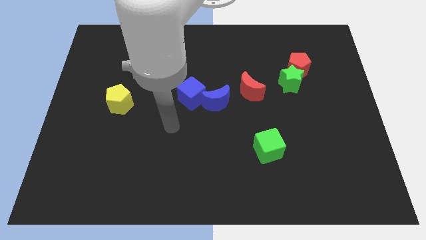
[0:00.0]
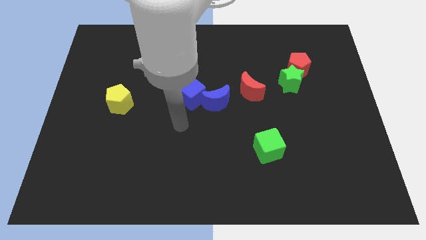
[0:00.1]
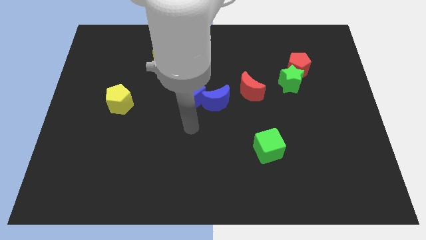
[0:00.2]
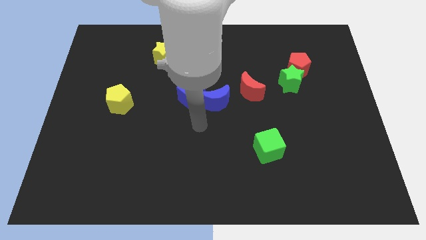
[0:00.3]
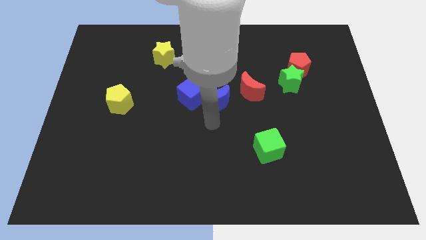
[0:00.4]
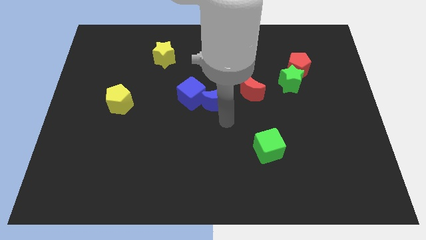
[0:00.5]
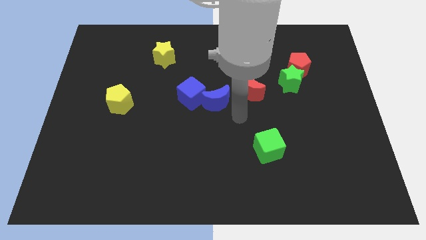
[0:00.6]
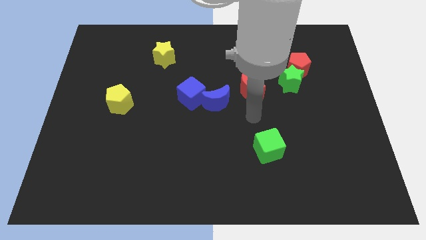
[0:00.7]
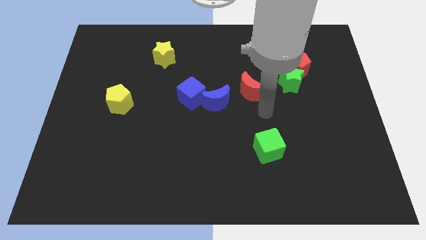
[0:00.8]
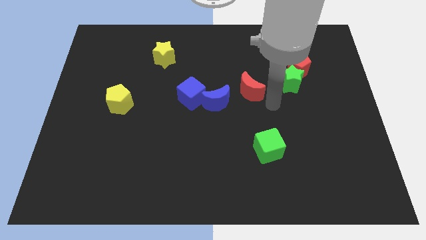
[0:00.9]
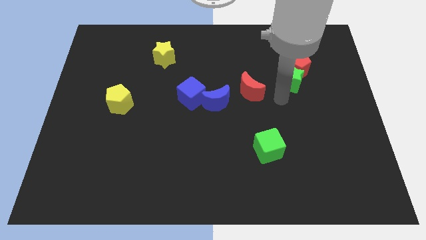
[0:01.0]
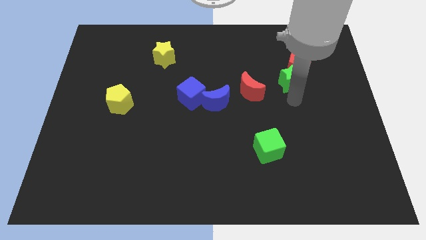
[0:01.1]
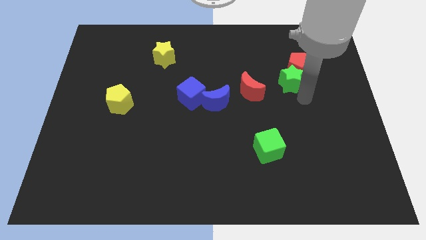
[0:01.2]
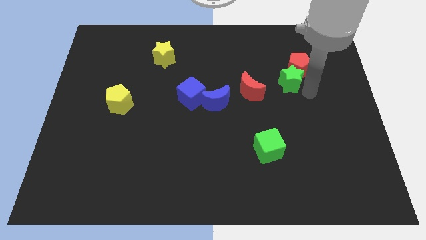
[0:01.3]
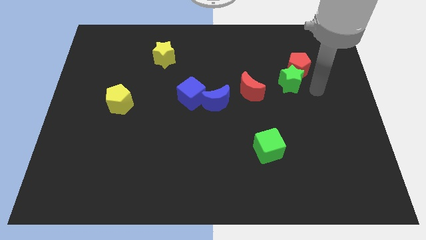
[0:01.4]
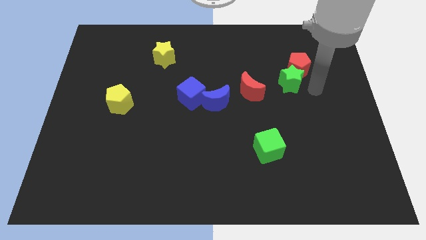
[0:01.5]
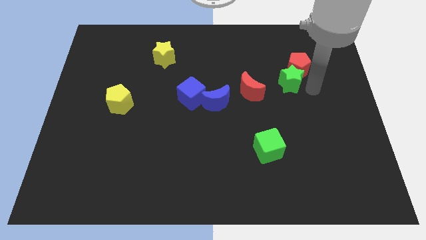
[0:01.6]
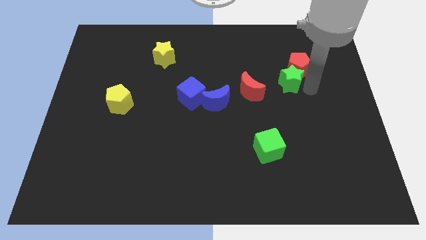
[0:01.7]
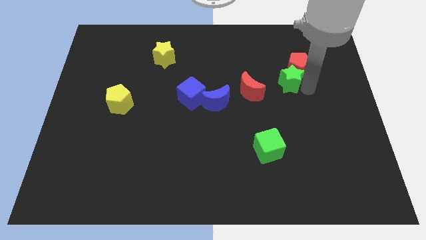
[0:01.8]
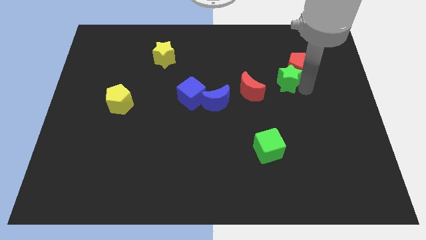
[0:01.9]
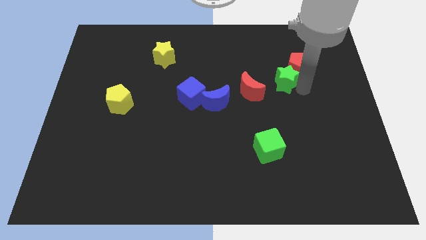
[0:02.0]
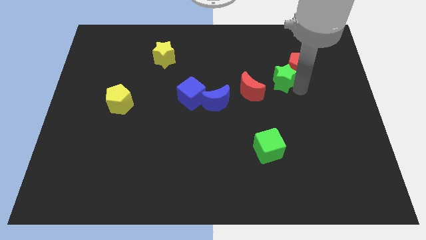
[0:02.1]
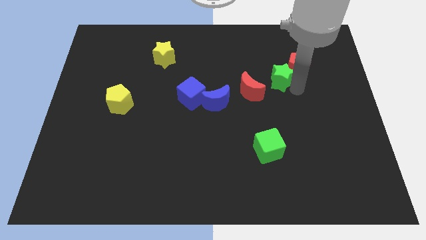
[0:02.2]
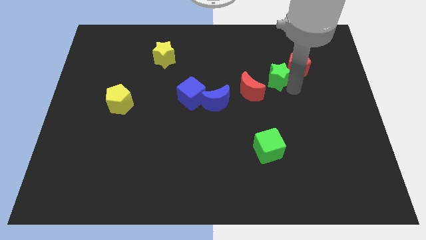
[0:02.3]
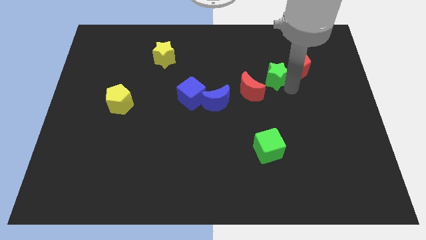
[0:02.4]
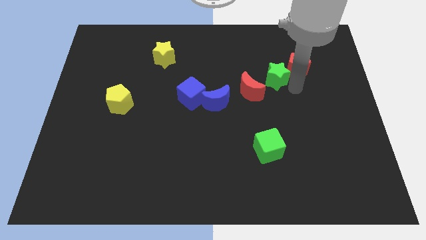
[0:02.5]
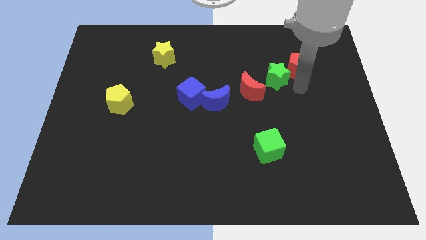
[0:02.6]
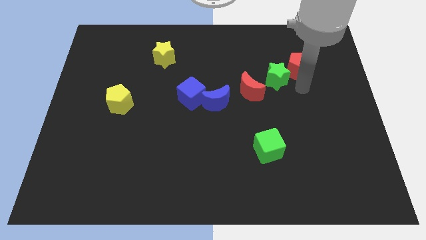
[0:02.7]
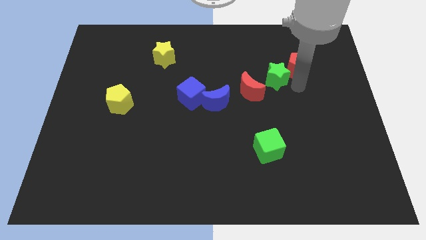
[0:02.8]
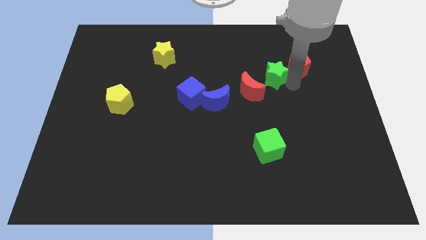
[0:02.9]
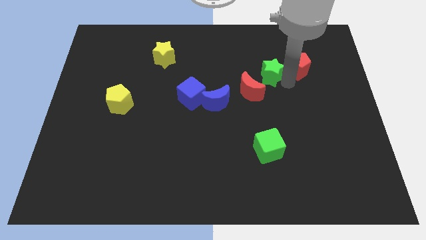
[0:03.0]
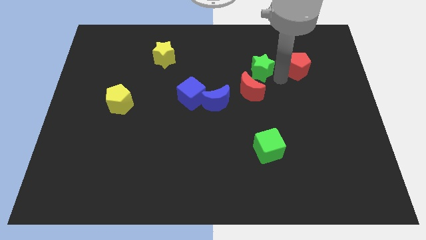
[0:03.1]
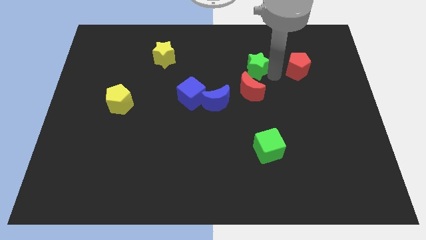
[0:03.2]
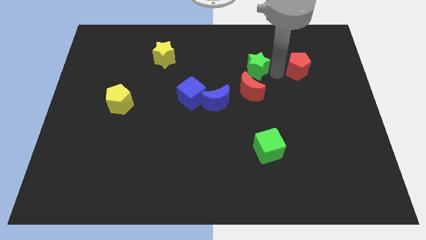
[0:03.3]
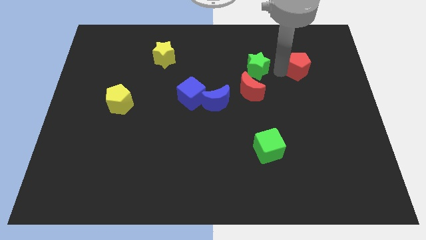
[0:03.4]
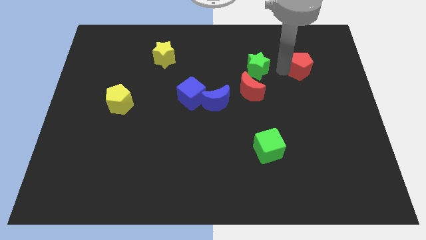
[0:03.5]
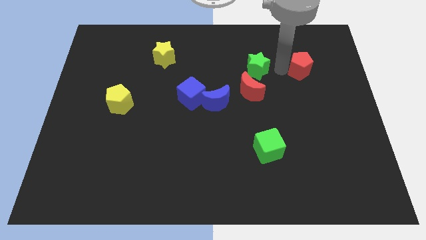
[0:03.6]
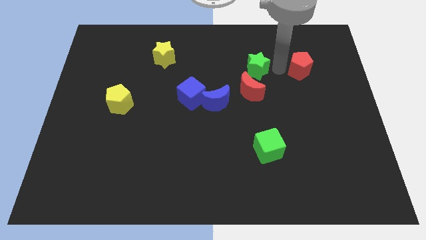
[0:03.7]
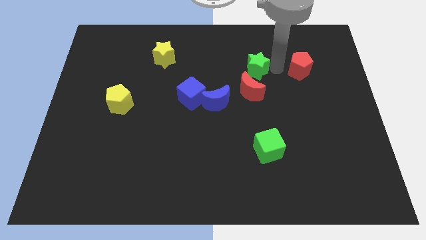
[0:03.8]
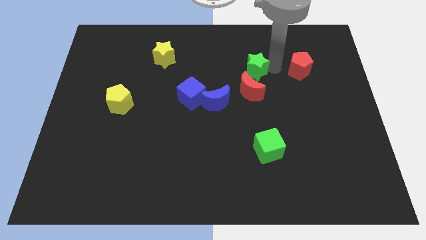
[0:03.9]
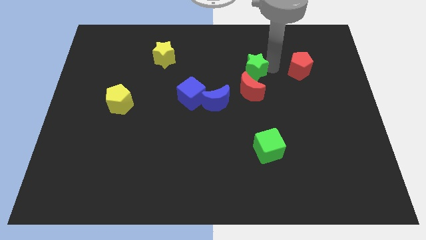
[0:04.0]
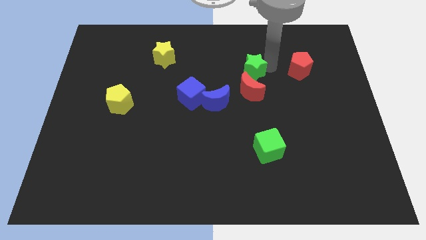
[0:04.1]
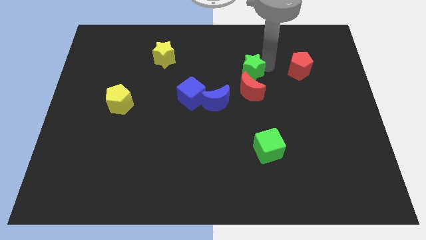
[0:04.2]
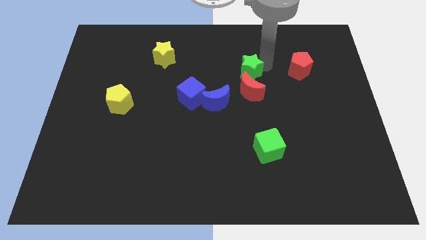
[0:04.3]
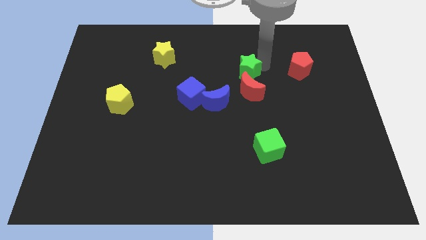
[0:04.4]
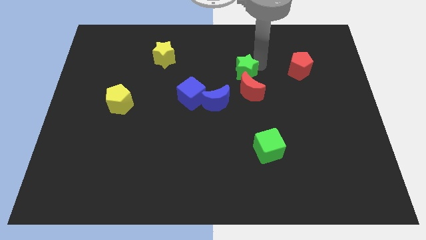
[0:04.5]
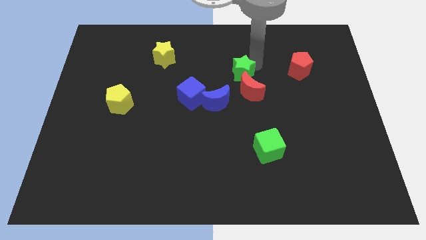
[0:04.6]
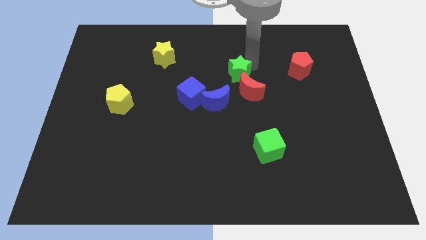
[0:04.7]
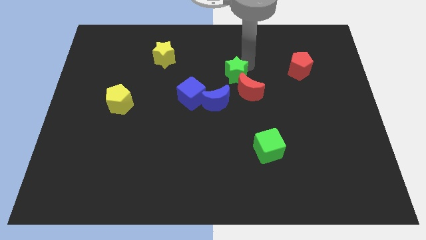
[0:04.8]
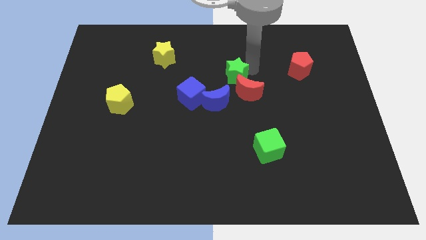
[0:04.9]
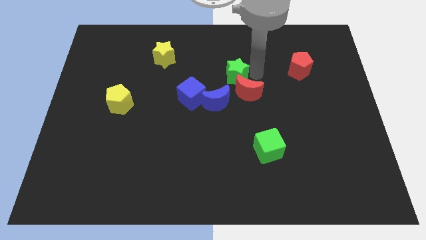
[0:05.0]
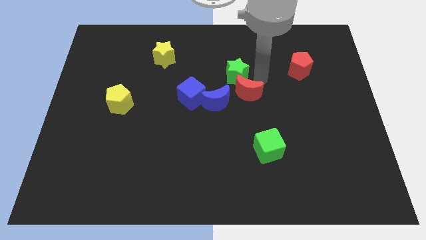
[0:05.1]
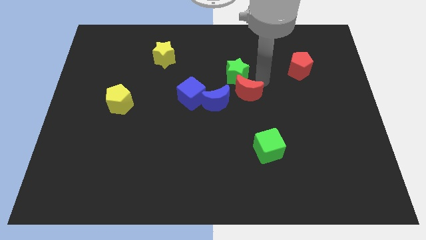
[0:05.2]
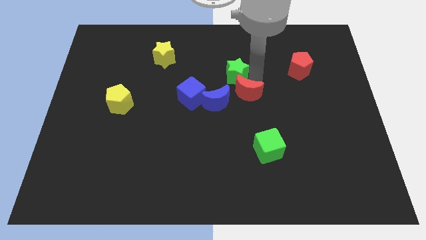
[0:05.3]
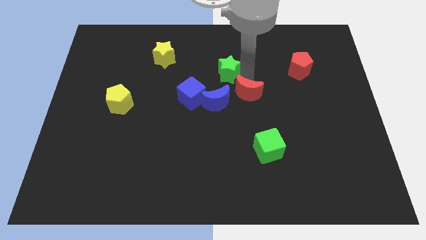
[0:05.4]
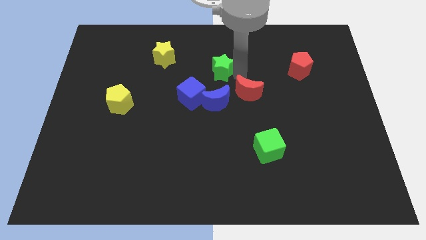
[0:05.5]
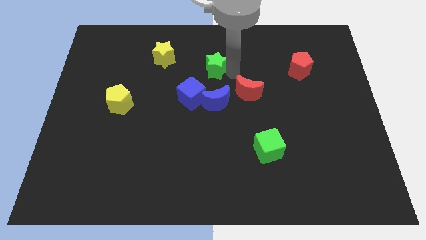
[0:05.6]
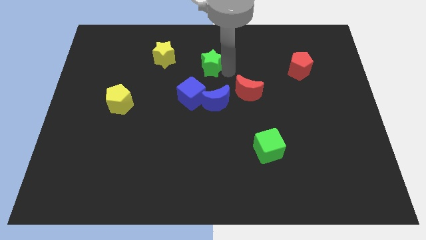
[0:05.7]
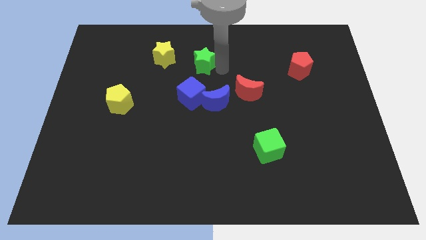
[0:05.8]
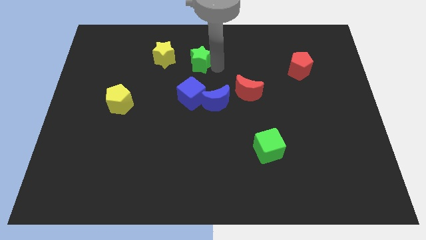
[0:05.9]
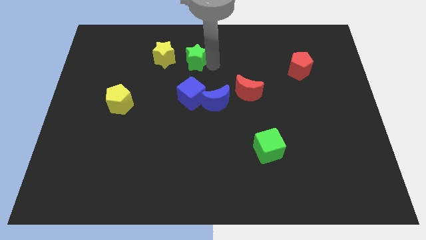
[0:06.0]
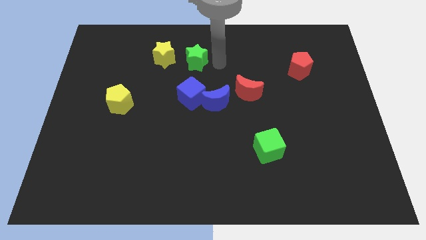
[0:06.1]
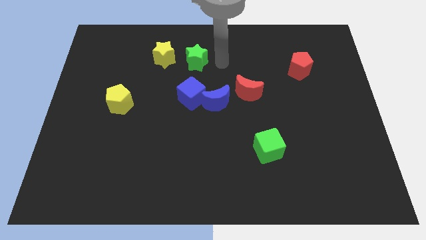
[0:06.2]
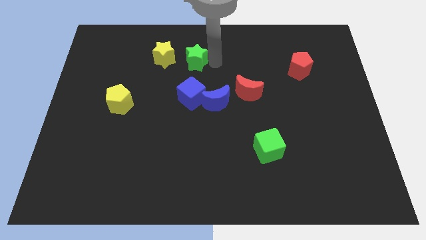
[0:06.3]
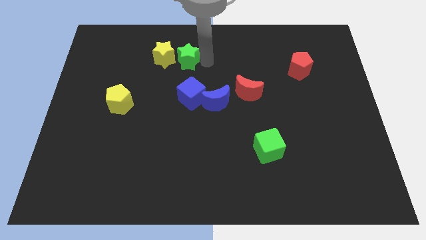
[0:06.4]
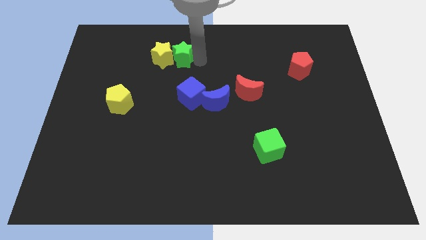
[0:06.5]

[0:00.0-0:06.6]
move the green star towards the yellow star
